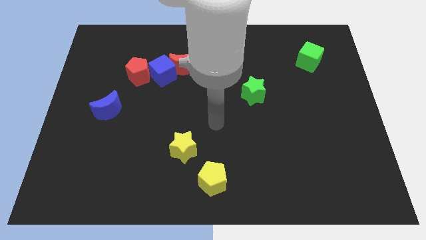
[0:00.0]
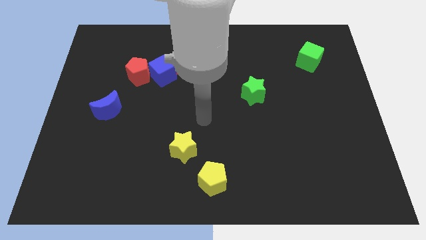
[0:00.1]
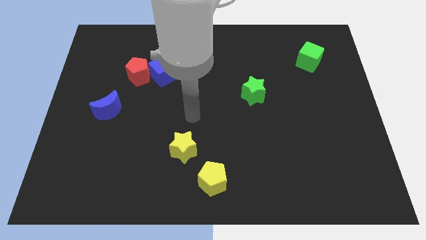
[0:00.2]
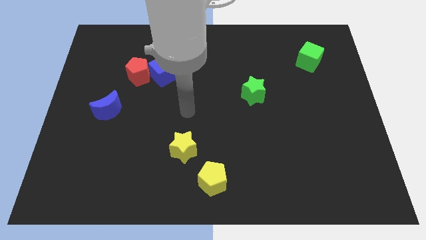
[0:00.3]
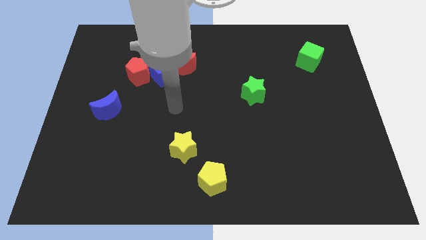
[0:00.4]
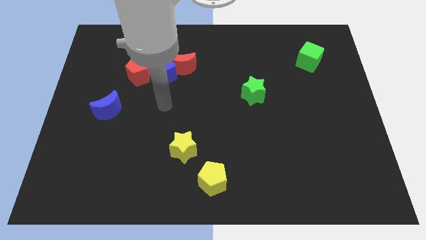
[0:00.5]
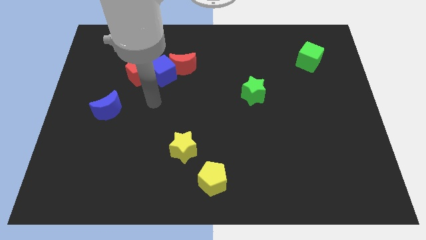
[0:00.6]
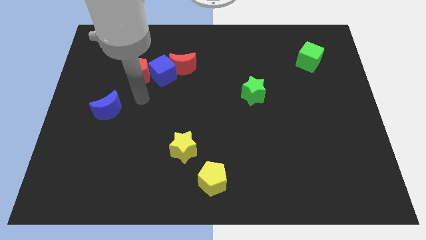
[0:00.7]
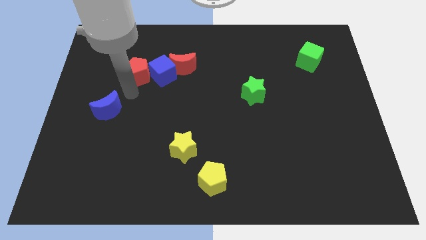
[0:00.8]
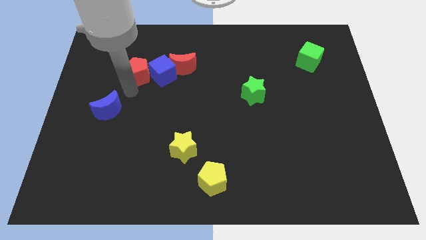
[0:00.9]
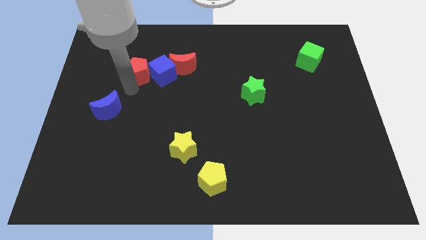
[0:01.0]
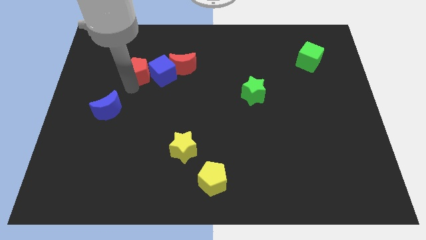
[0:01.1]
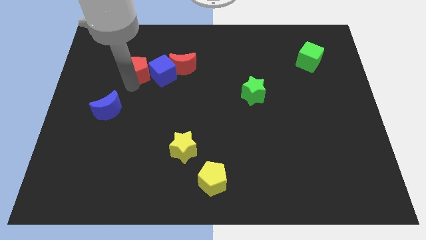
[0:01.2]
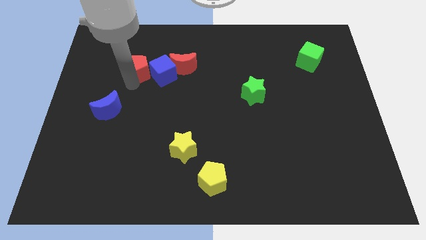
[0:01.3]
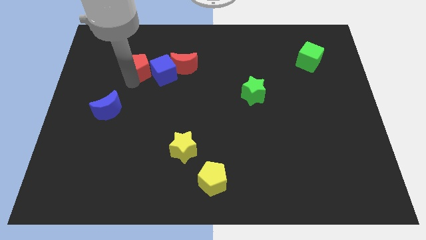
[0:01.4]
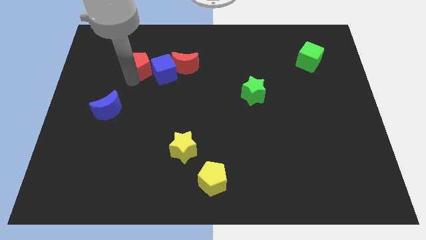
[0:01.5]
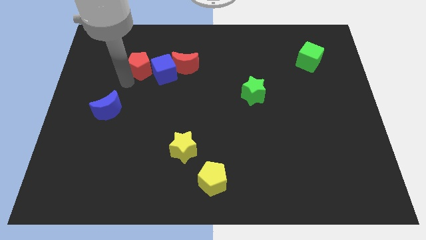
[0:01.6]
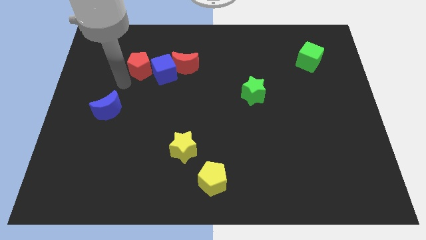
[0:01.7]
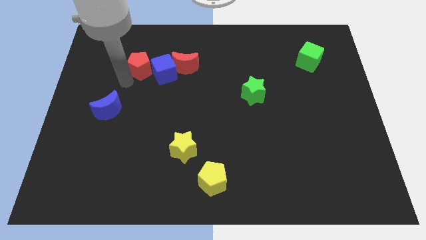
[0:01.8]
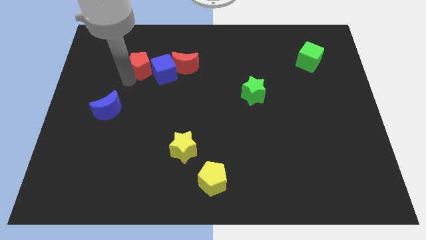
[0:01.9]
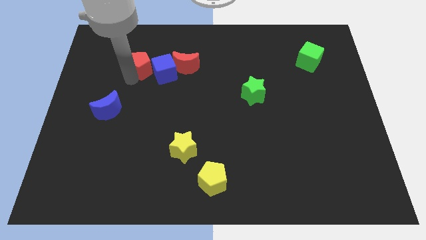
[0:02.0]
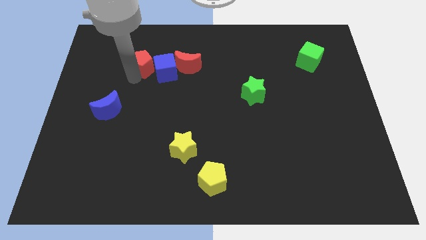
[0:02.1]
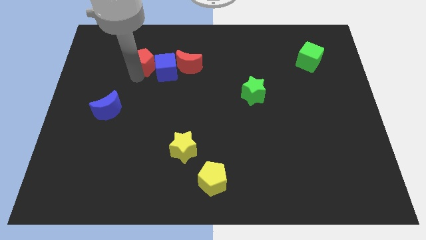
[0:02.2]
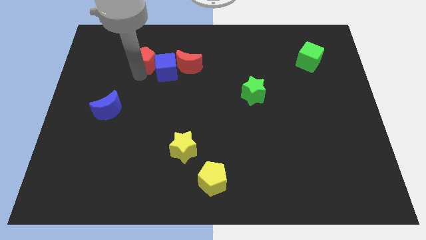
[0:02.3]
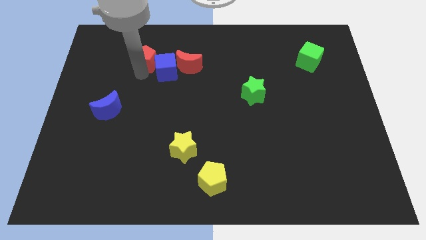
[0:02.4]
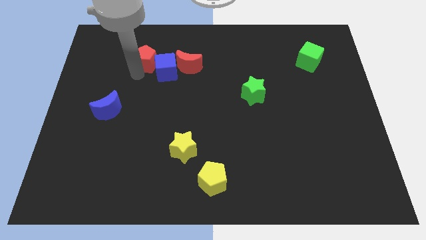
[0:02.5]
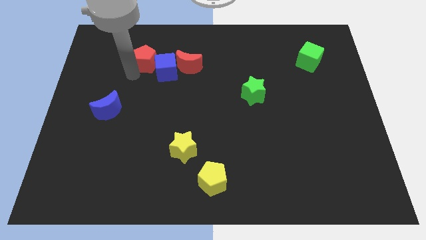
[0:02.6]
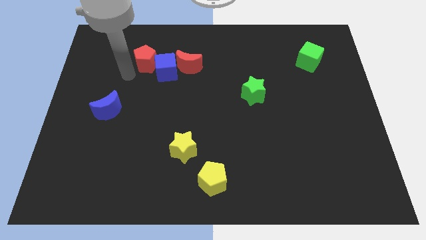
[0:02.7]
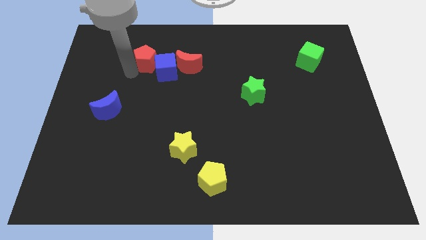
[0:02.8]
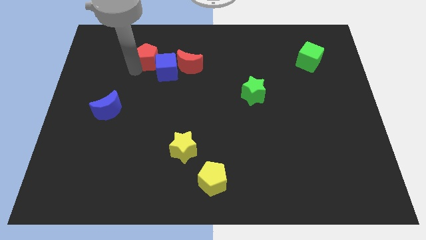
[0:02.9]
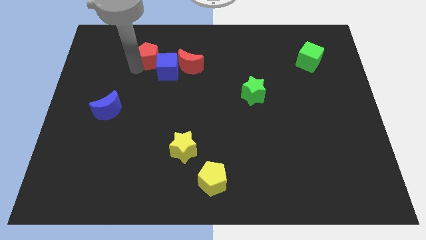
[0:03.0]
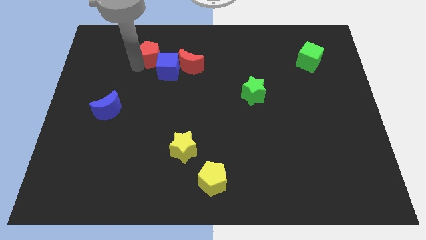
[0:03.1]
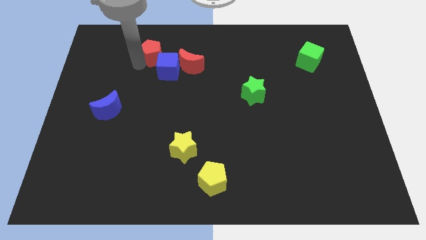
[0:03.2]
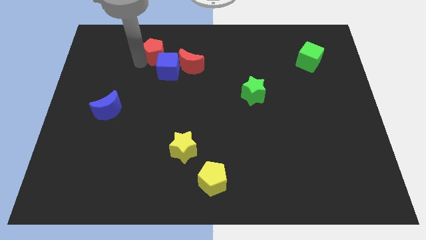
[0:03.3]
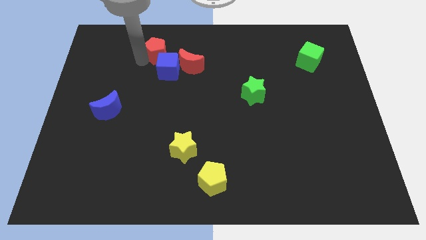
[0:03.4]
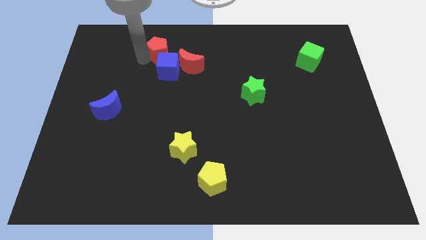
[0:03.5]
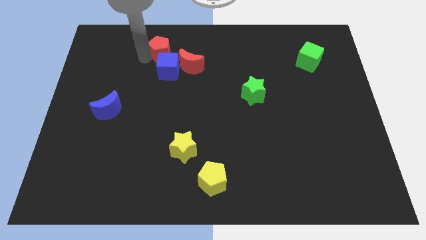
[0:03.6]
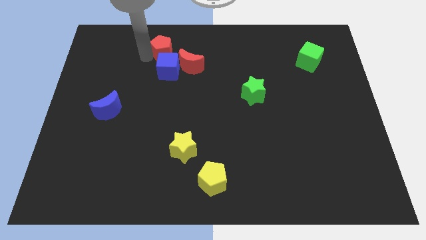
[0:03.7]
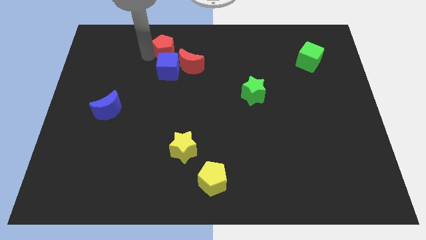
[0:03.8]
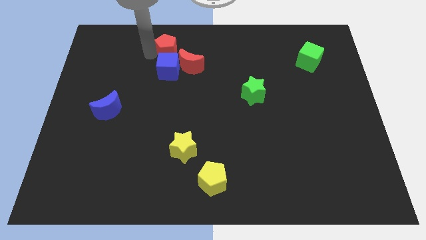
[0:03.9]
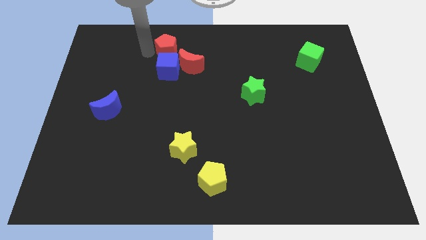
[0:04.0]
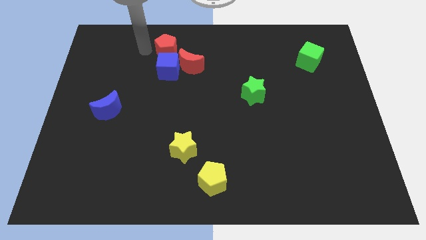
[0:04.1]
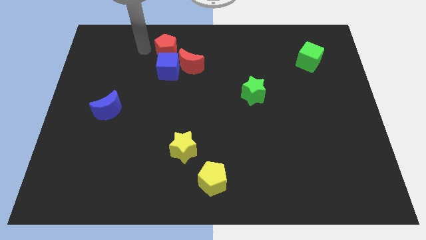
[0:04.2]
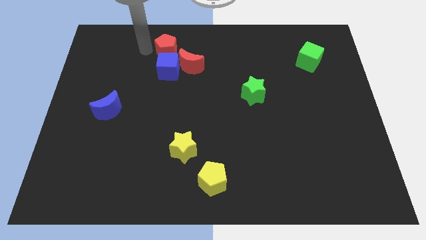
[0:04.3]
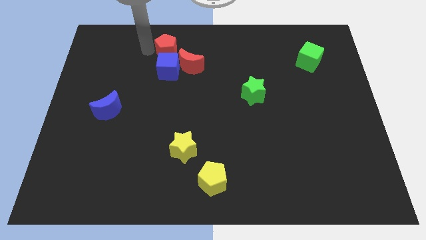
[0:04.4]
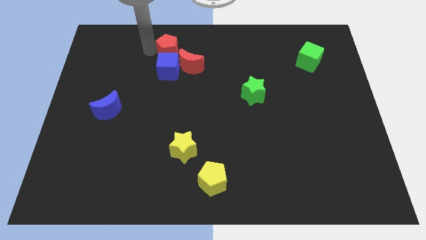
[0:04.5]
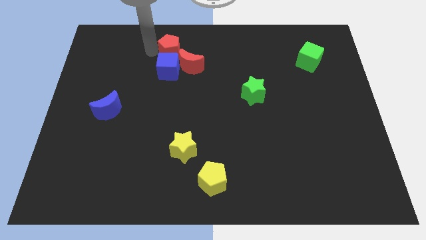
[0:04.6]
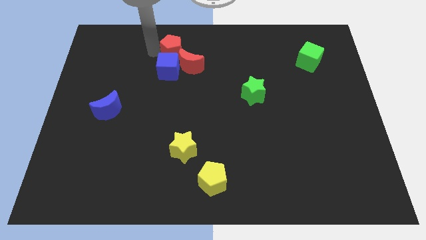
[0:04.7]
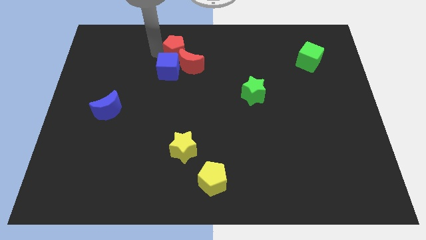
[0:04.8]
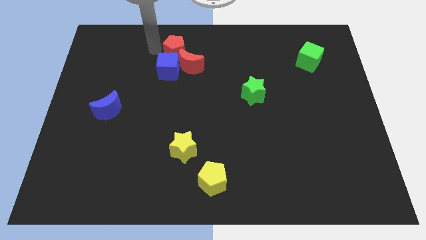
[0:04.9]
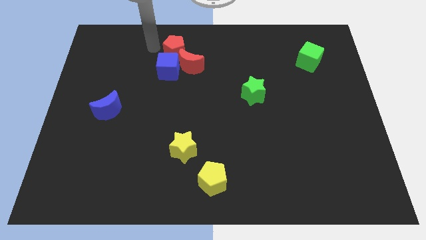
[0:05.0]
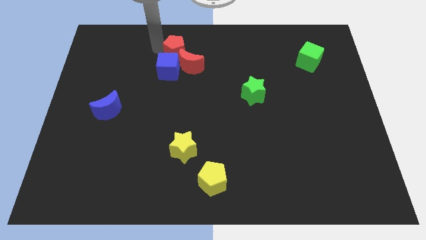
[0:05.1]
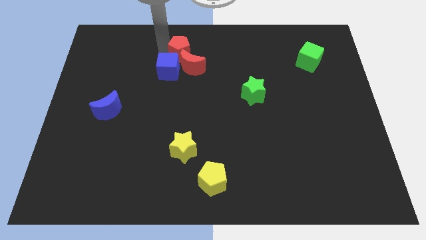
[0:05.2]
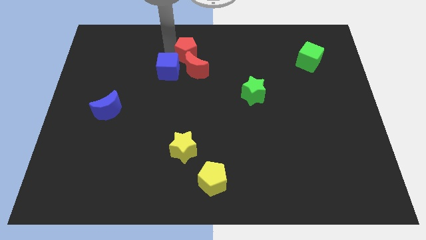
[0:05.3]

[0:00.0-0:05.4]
move the red pentagon to the towards your base

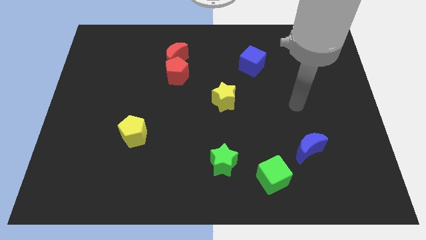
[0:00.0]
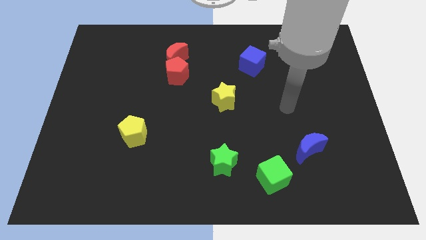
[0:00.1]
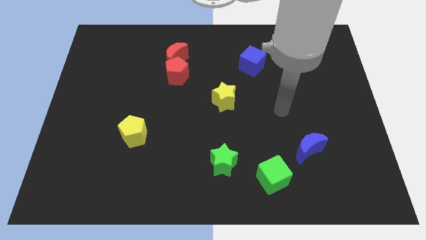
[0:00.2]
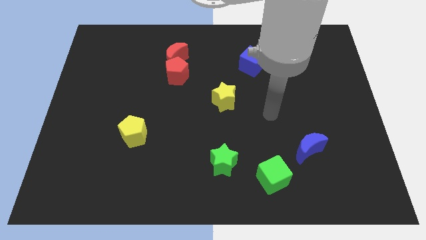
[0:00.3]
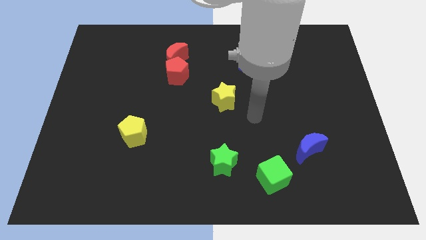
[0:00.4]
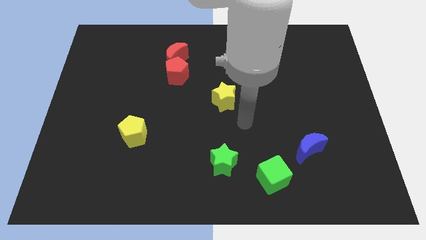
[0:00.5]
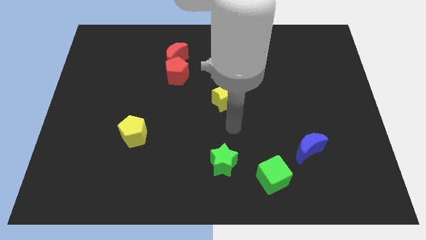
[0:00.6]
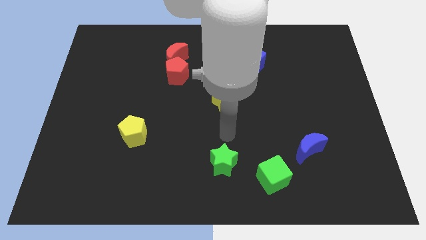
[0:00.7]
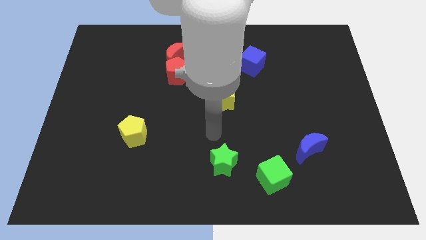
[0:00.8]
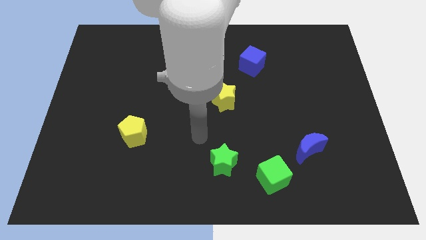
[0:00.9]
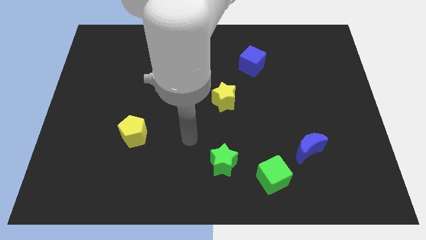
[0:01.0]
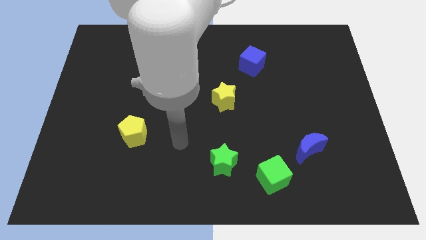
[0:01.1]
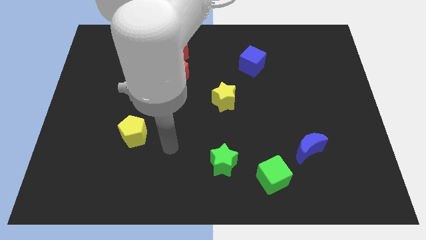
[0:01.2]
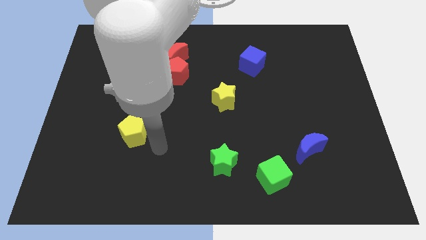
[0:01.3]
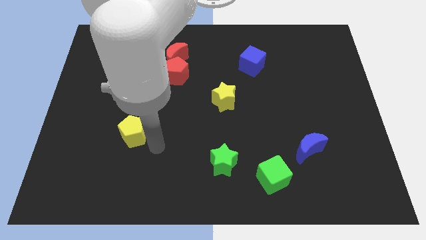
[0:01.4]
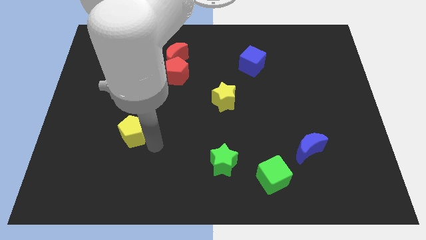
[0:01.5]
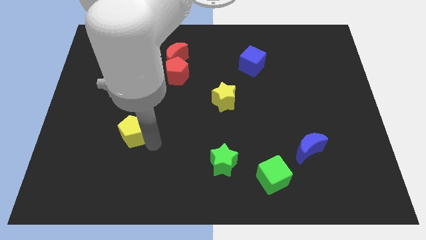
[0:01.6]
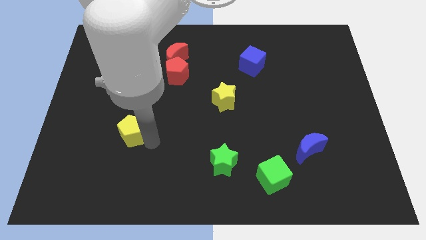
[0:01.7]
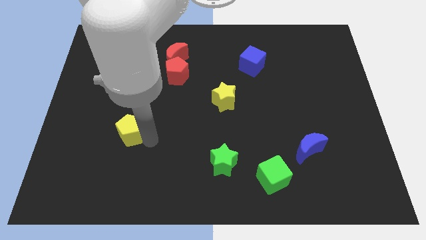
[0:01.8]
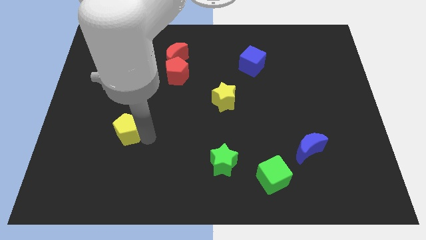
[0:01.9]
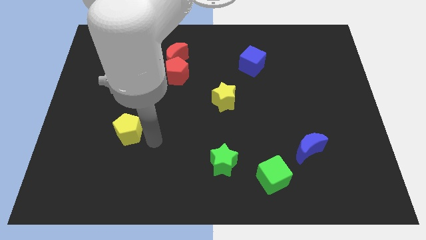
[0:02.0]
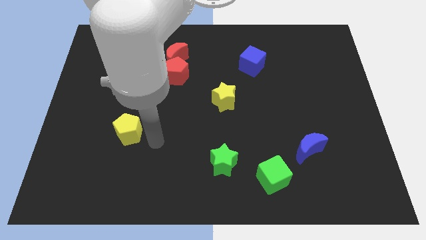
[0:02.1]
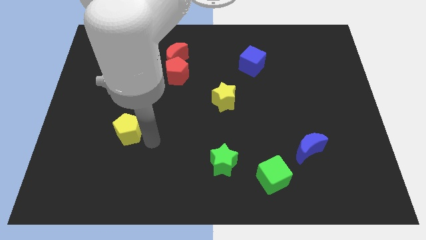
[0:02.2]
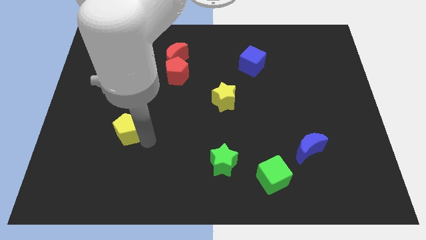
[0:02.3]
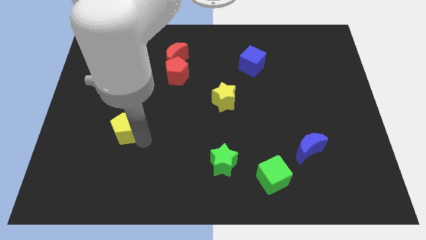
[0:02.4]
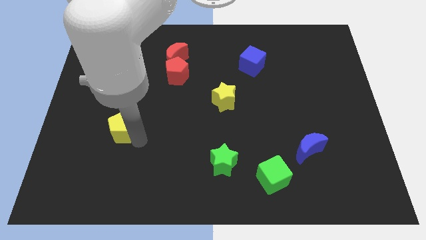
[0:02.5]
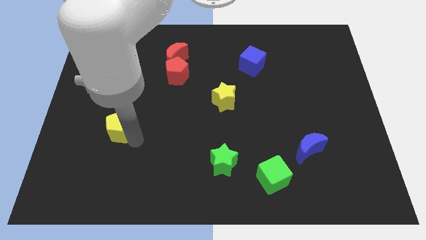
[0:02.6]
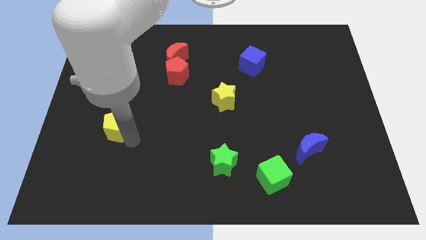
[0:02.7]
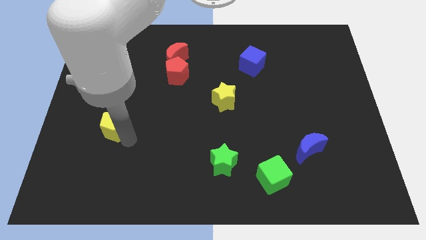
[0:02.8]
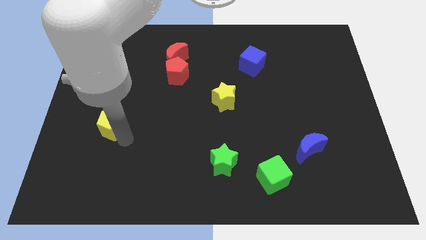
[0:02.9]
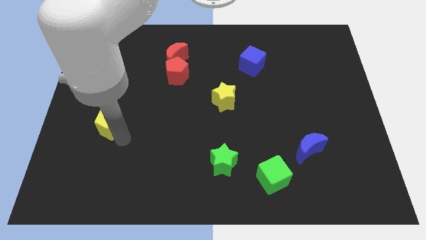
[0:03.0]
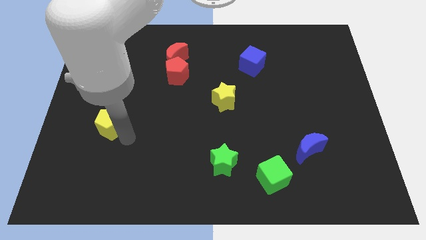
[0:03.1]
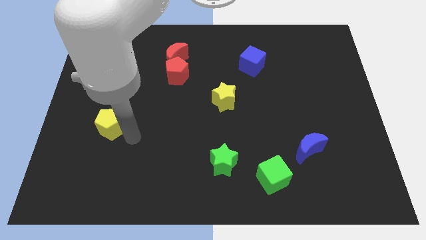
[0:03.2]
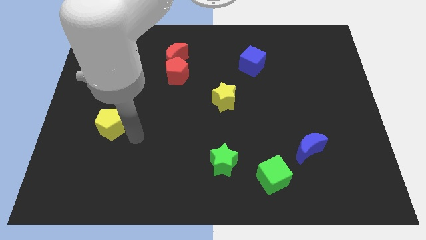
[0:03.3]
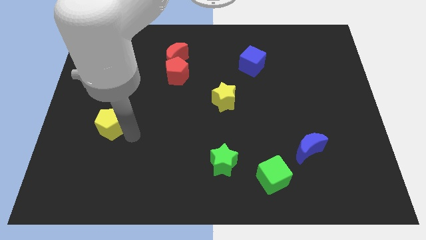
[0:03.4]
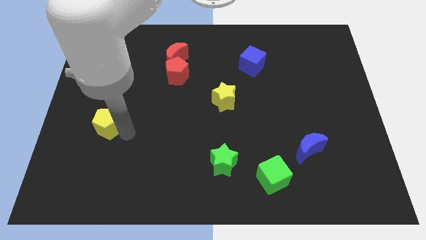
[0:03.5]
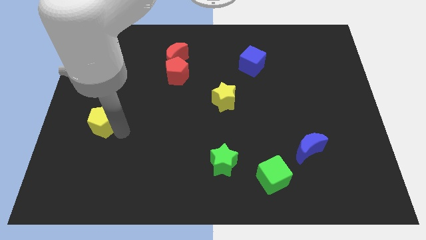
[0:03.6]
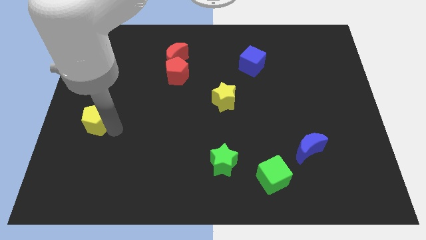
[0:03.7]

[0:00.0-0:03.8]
slide the yellow pentagon to the left side of the board
